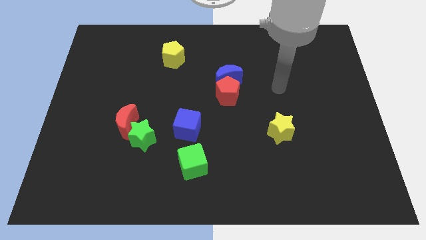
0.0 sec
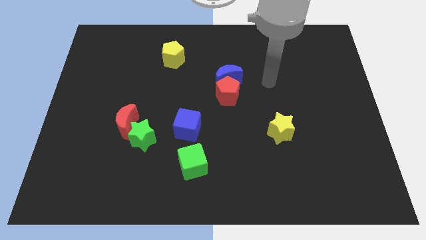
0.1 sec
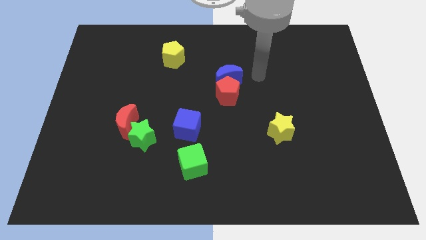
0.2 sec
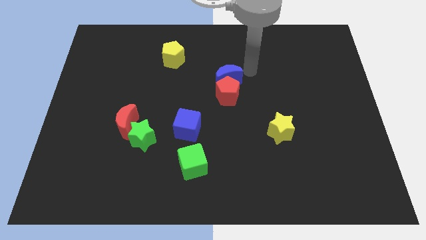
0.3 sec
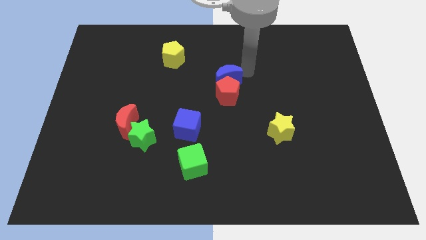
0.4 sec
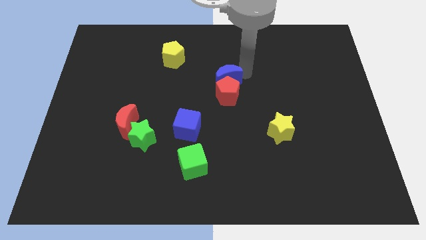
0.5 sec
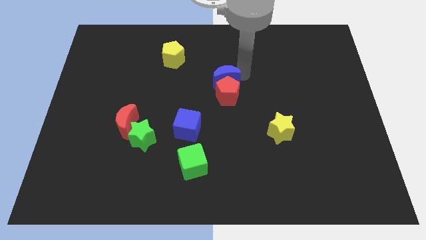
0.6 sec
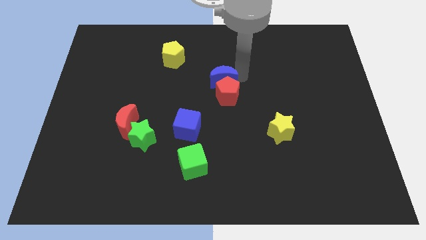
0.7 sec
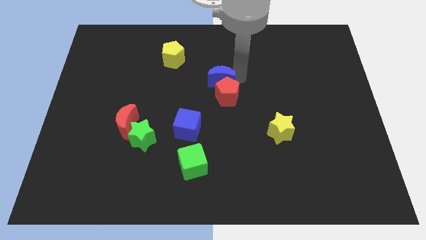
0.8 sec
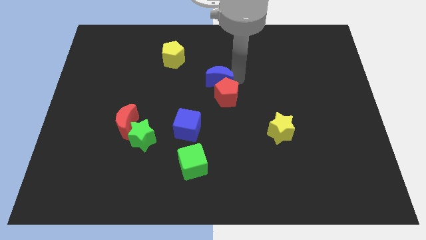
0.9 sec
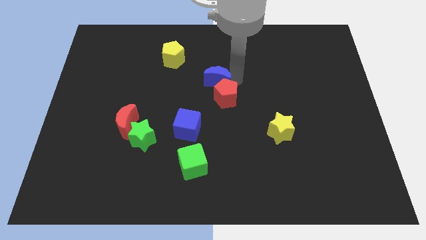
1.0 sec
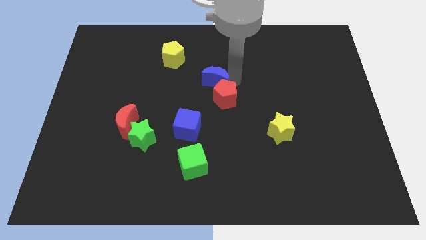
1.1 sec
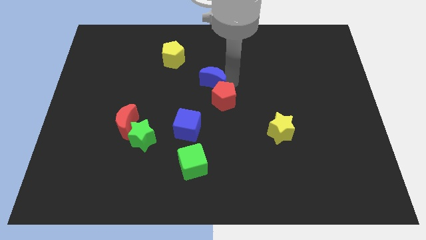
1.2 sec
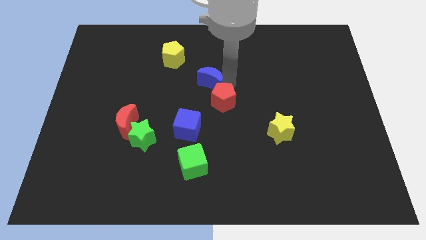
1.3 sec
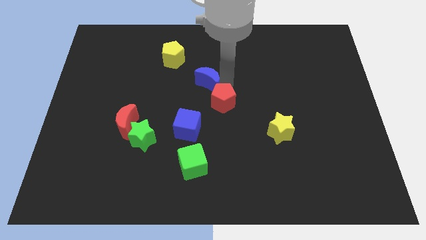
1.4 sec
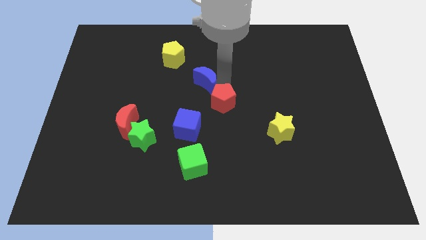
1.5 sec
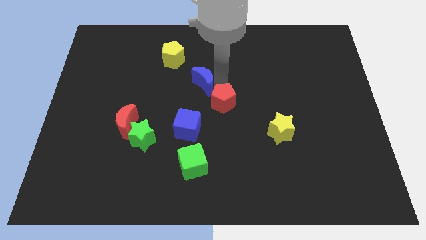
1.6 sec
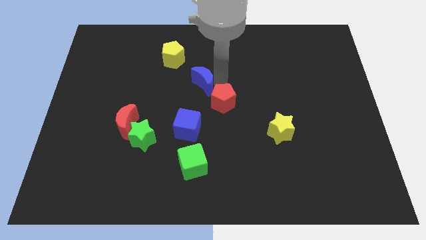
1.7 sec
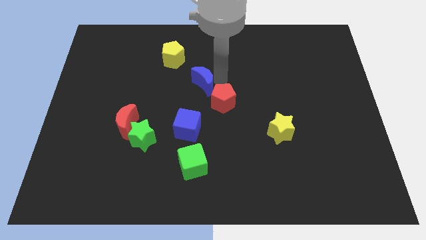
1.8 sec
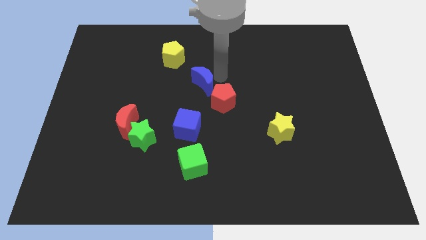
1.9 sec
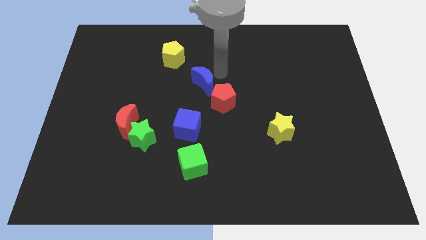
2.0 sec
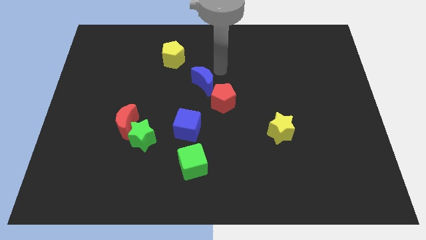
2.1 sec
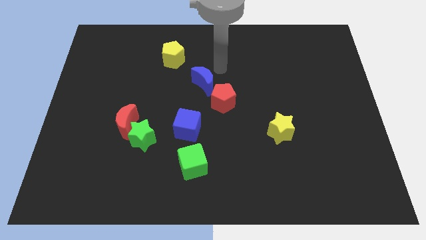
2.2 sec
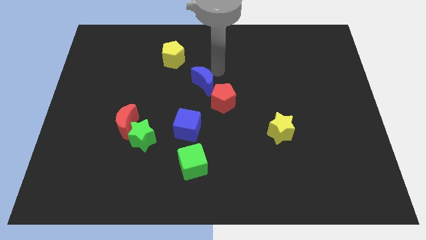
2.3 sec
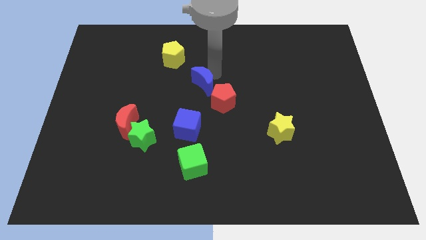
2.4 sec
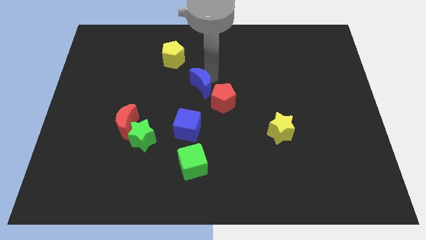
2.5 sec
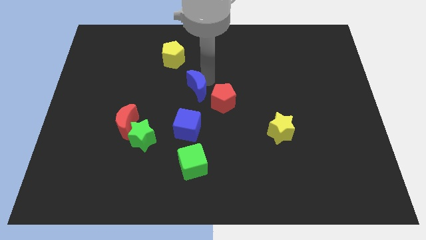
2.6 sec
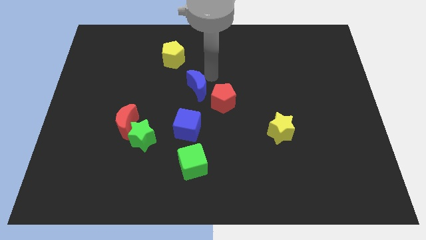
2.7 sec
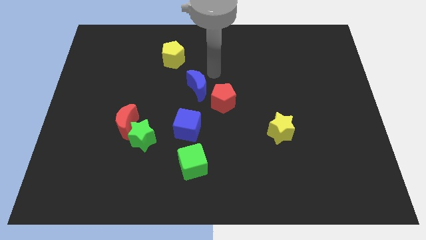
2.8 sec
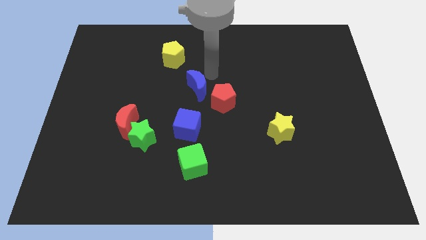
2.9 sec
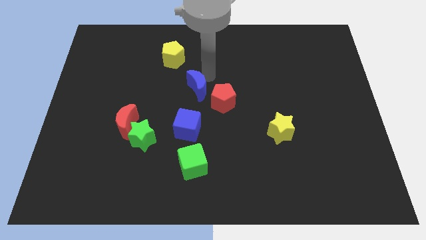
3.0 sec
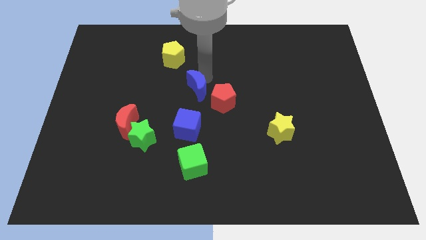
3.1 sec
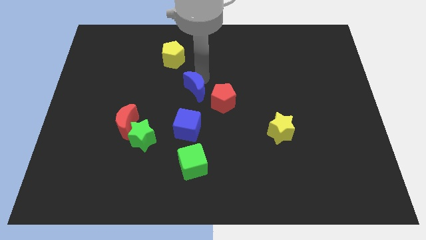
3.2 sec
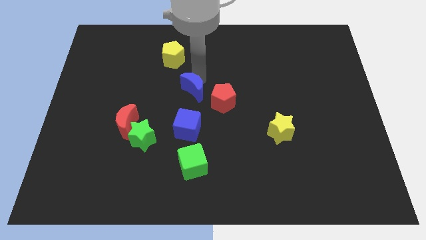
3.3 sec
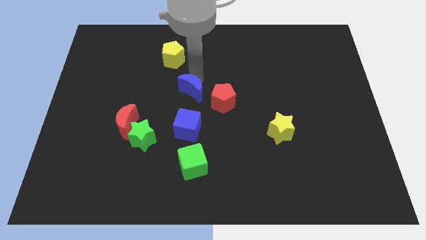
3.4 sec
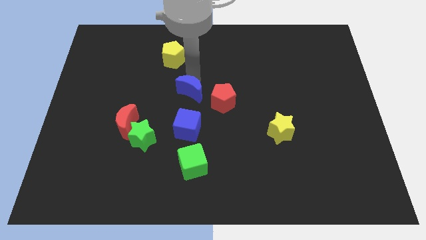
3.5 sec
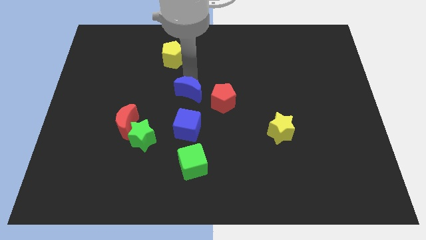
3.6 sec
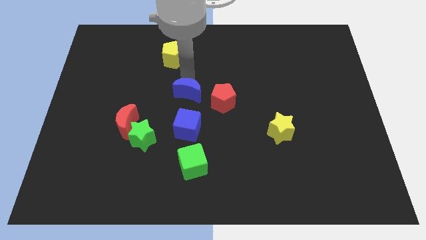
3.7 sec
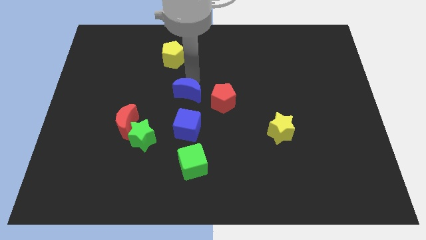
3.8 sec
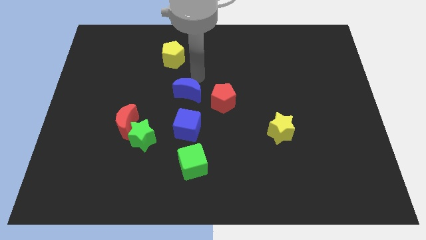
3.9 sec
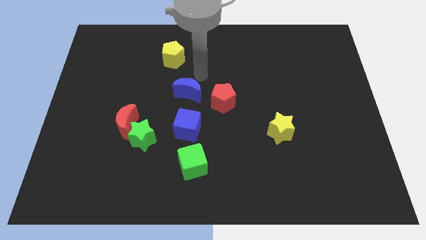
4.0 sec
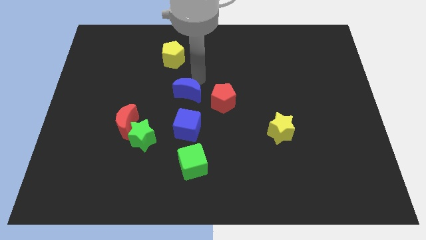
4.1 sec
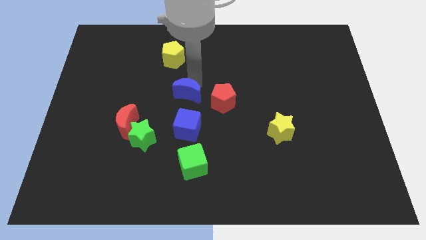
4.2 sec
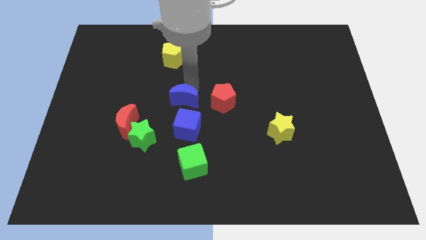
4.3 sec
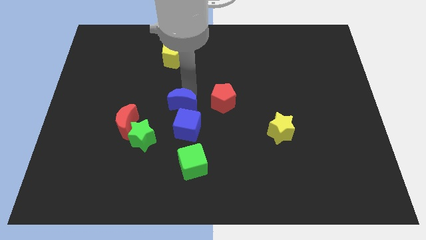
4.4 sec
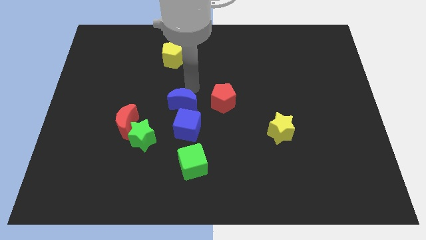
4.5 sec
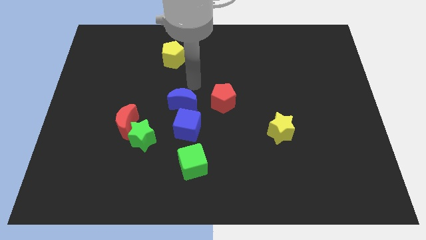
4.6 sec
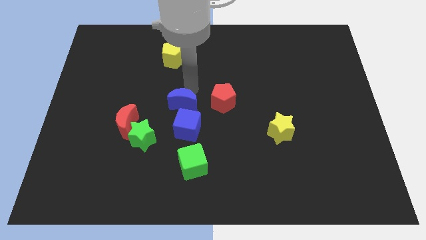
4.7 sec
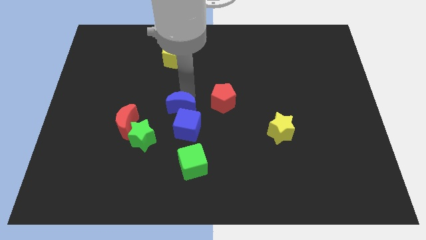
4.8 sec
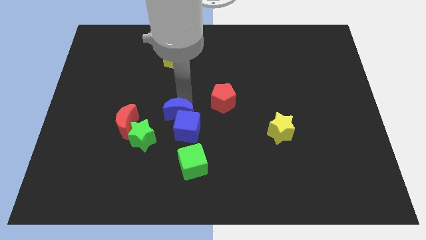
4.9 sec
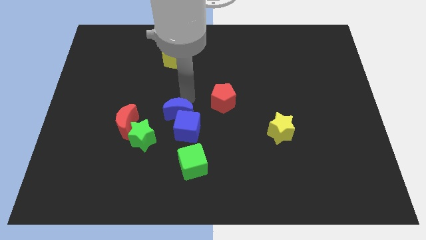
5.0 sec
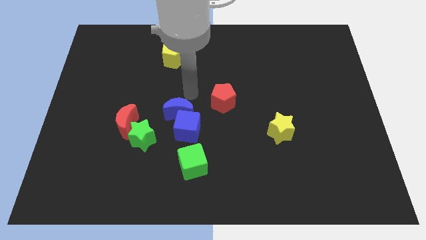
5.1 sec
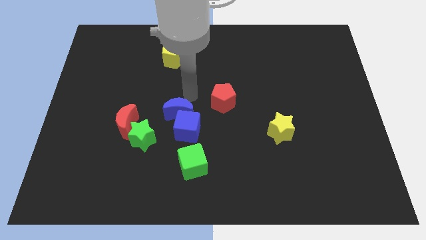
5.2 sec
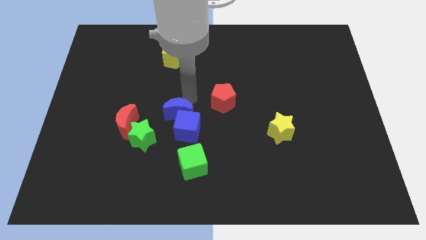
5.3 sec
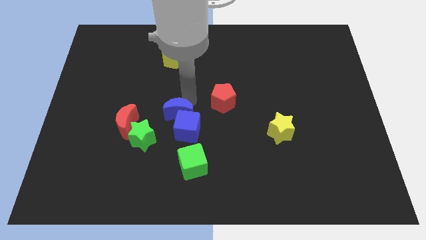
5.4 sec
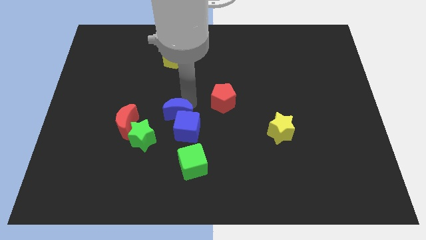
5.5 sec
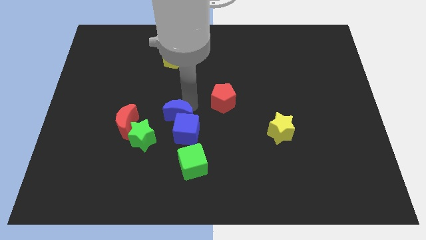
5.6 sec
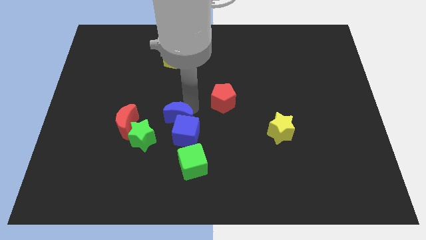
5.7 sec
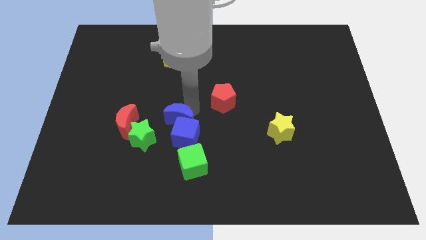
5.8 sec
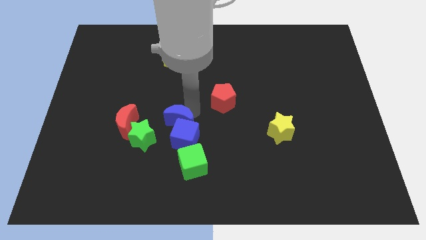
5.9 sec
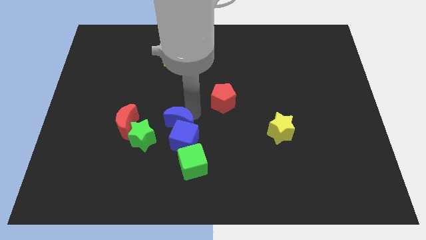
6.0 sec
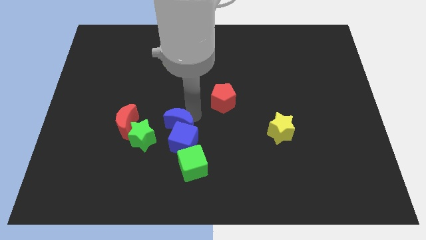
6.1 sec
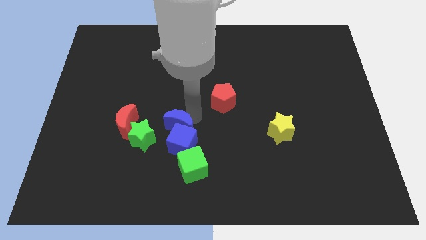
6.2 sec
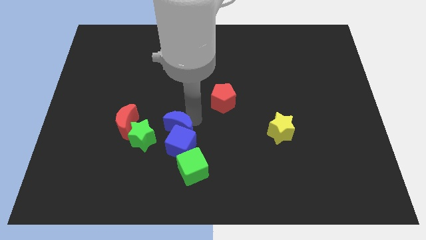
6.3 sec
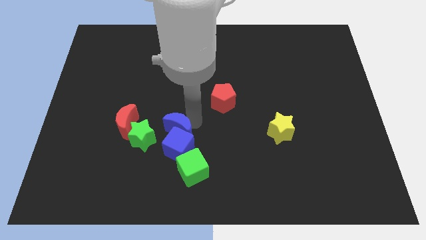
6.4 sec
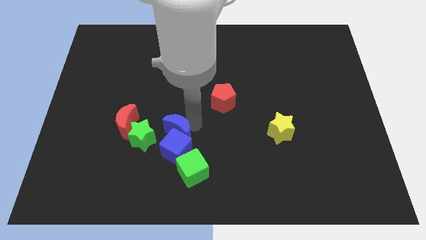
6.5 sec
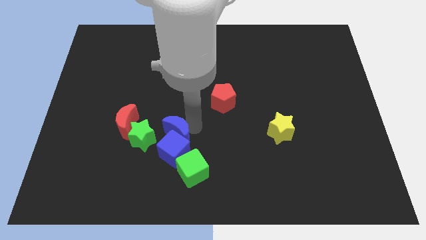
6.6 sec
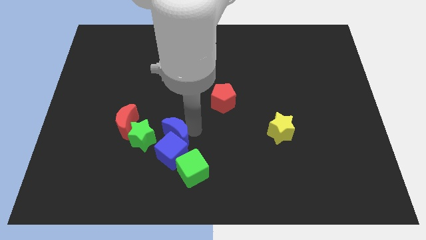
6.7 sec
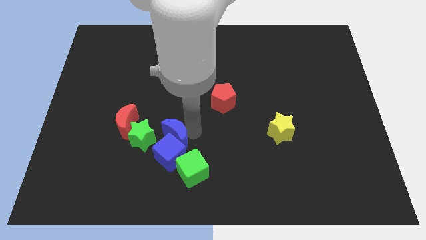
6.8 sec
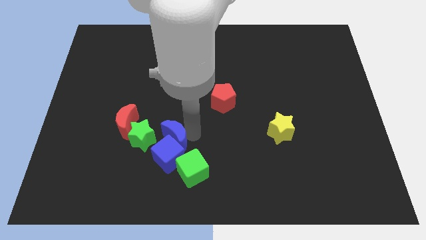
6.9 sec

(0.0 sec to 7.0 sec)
push the blue moon diagonally downwards and left

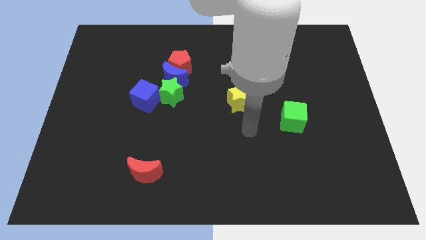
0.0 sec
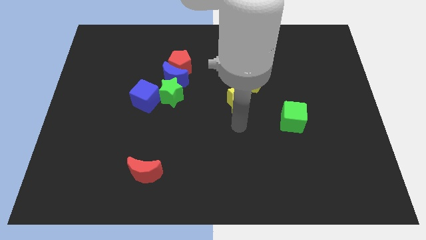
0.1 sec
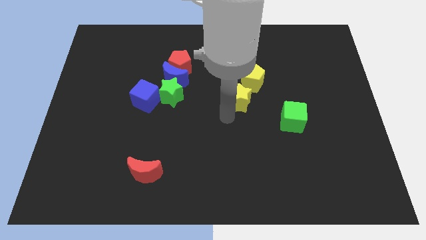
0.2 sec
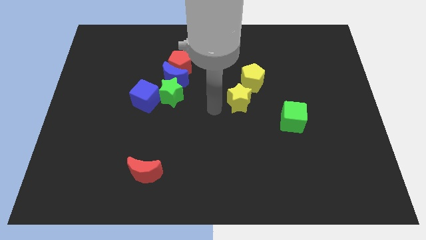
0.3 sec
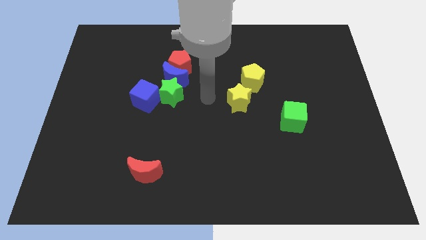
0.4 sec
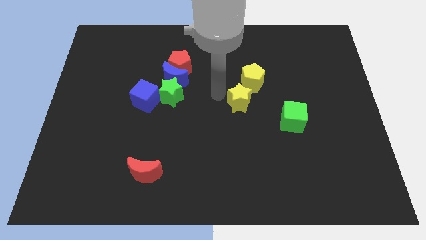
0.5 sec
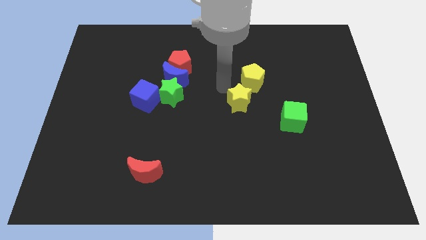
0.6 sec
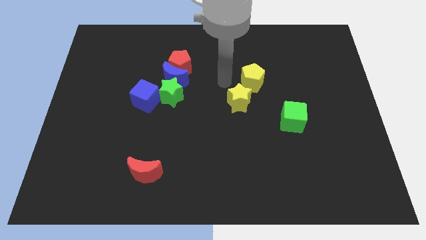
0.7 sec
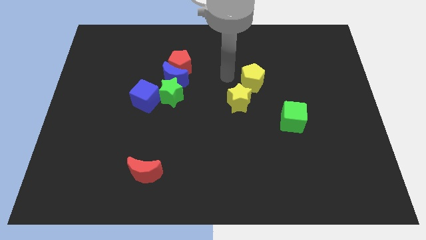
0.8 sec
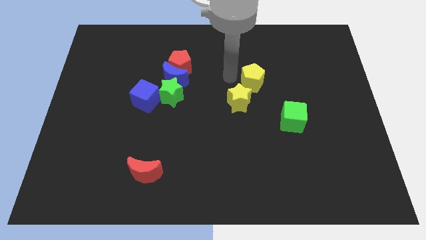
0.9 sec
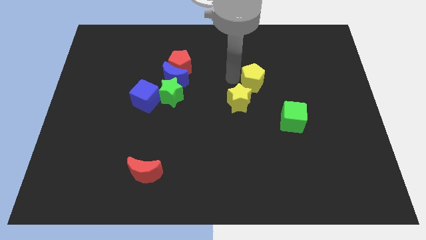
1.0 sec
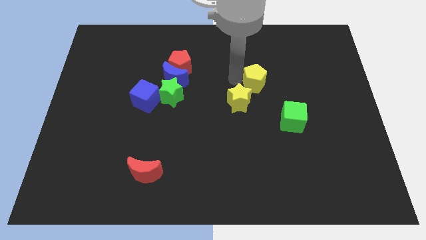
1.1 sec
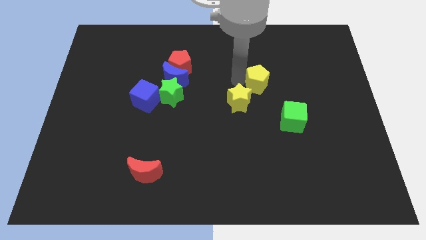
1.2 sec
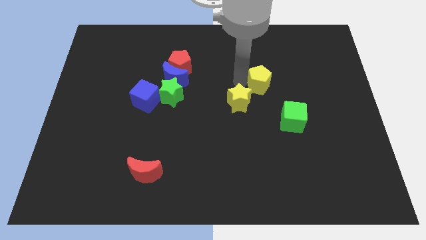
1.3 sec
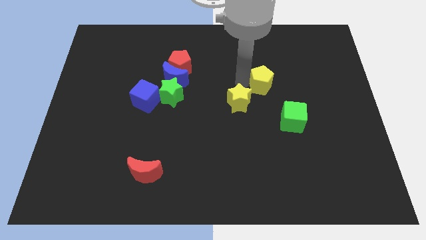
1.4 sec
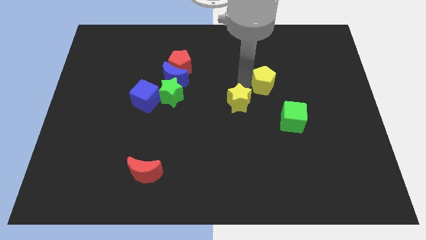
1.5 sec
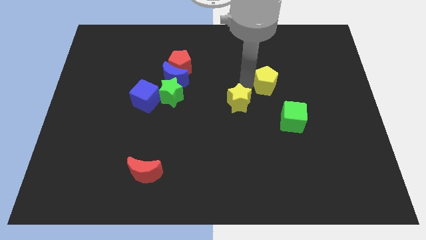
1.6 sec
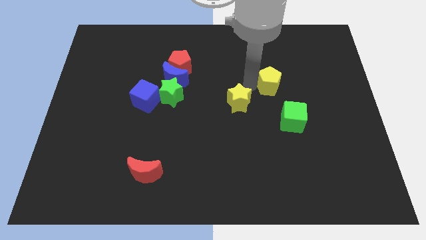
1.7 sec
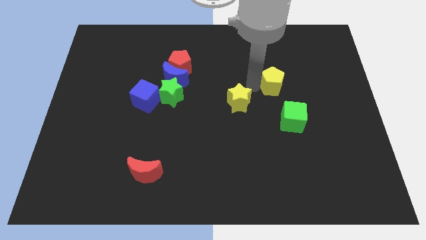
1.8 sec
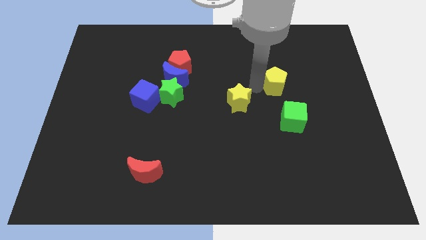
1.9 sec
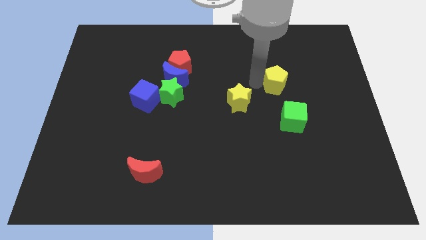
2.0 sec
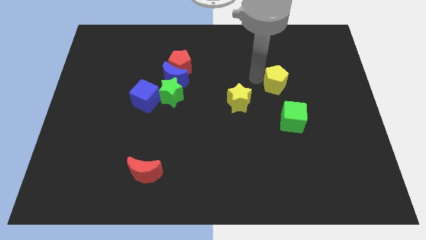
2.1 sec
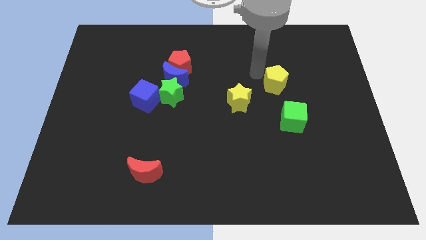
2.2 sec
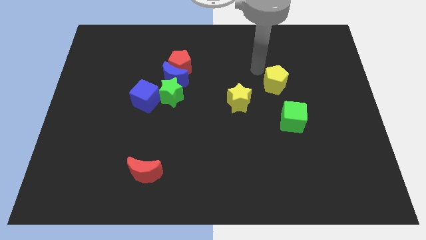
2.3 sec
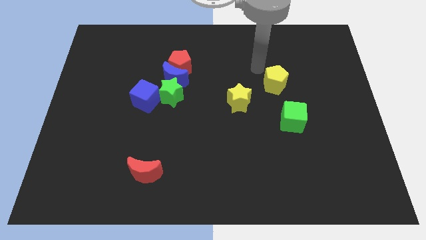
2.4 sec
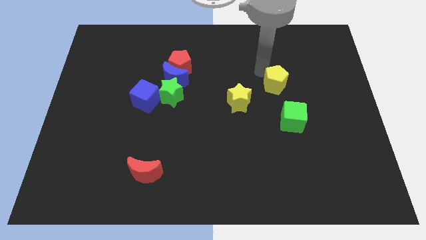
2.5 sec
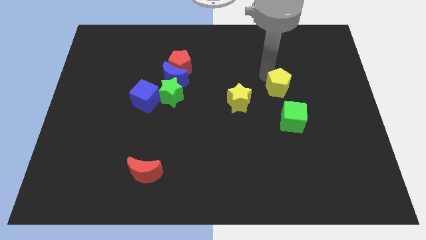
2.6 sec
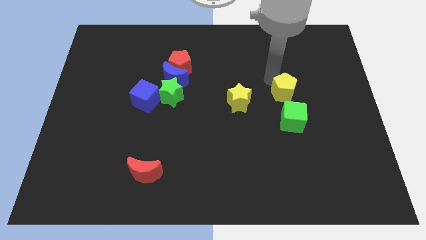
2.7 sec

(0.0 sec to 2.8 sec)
push the yellow pentagon a little bit downwards and to the right diagonally
